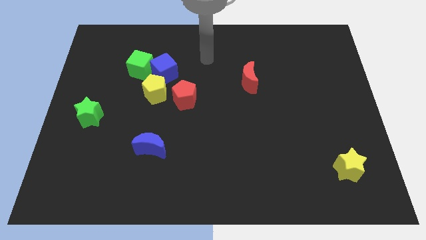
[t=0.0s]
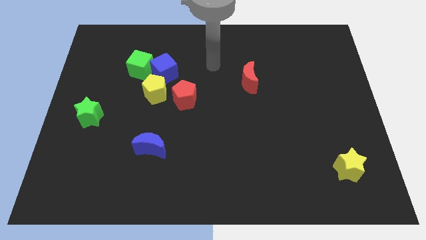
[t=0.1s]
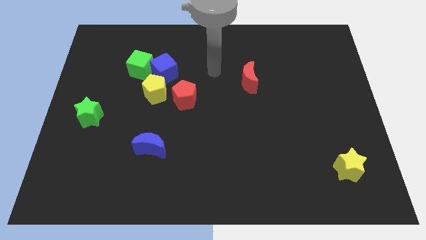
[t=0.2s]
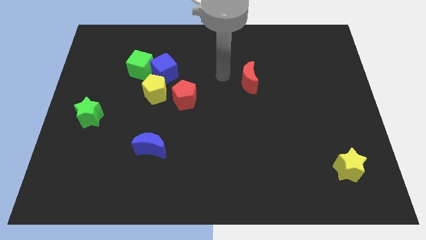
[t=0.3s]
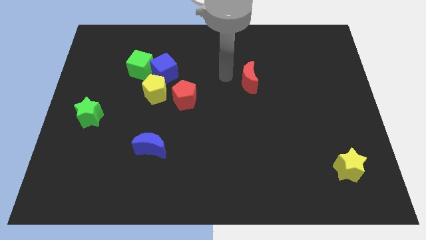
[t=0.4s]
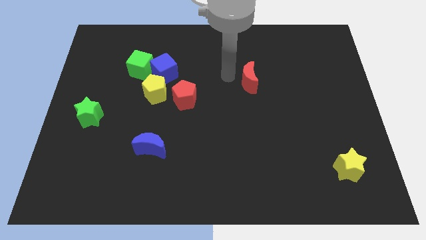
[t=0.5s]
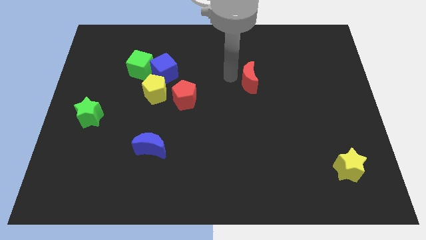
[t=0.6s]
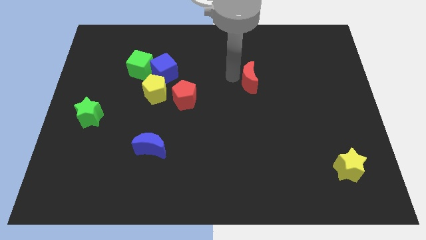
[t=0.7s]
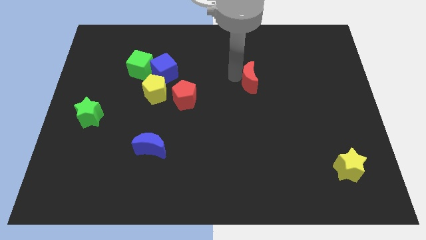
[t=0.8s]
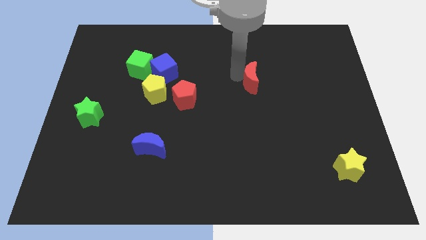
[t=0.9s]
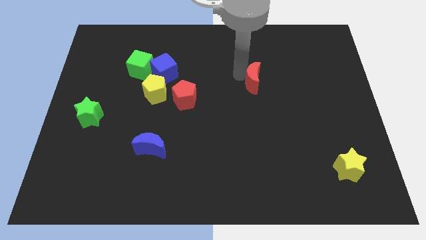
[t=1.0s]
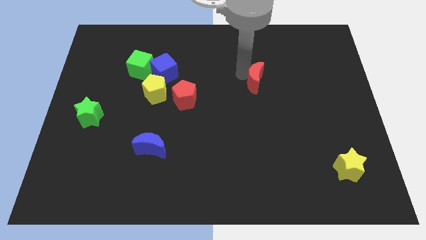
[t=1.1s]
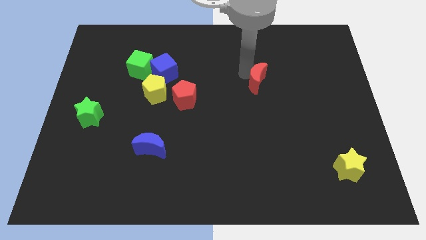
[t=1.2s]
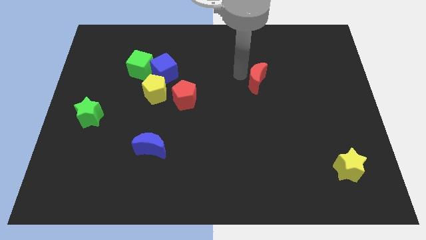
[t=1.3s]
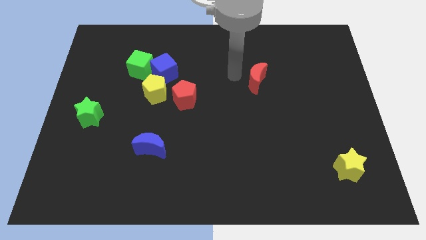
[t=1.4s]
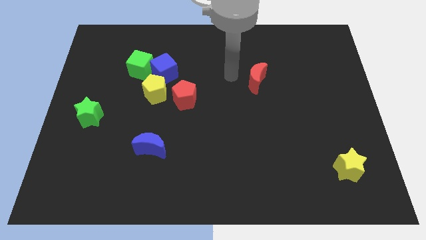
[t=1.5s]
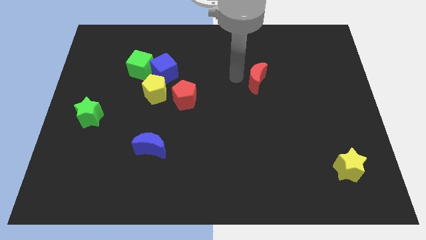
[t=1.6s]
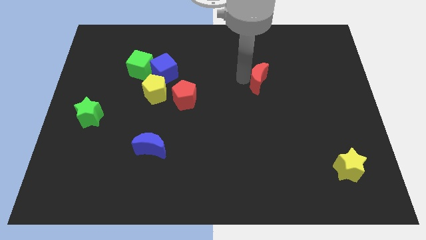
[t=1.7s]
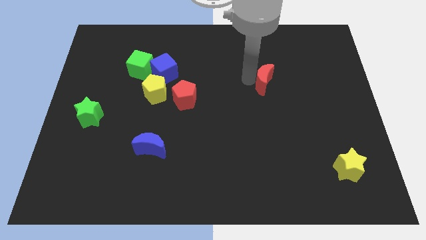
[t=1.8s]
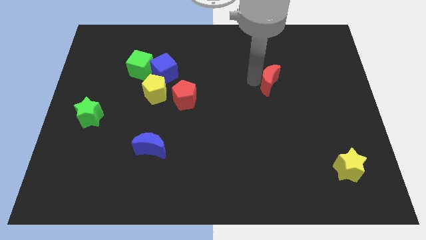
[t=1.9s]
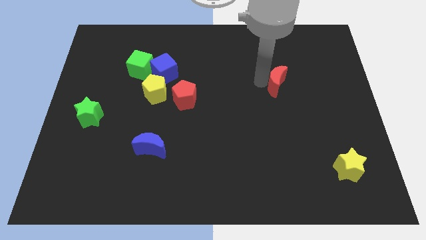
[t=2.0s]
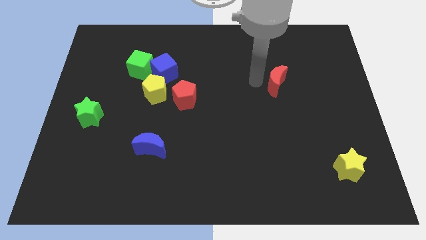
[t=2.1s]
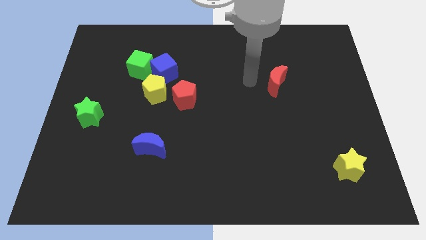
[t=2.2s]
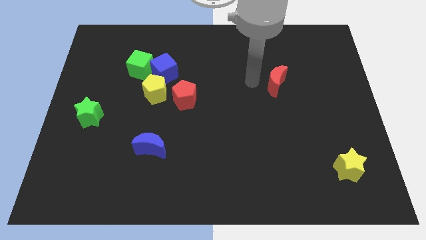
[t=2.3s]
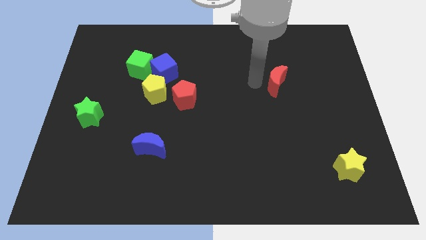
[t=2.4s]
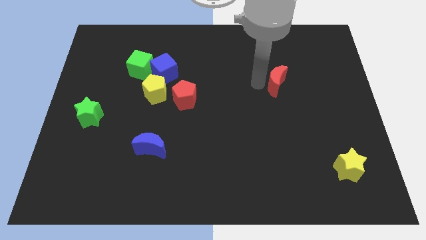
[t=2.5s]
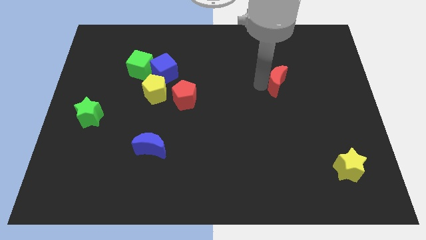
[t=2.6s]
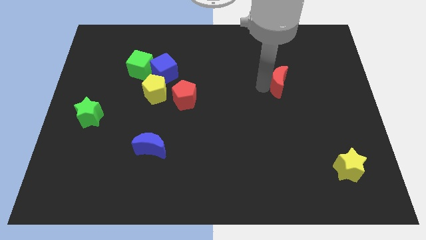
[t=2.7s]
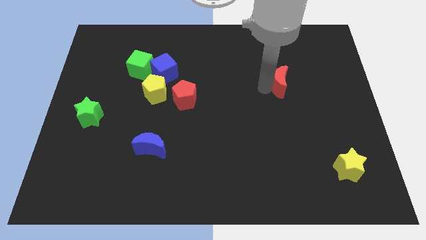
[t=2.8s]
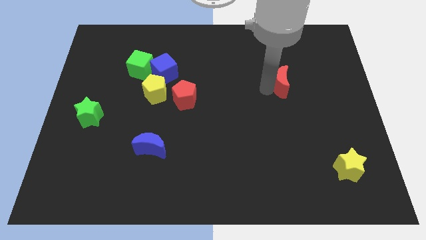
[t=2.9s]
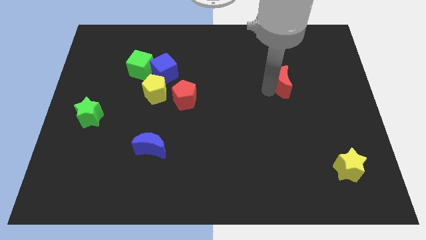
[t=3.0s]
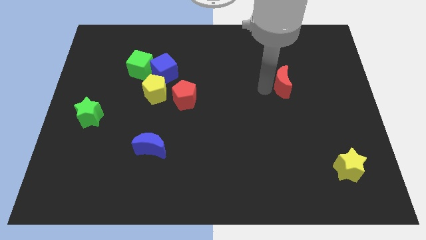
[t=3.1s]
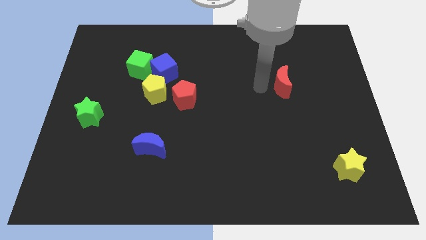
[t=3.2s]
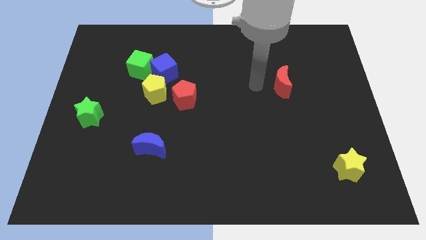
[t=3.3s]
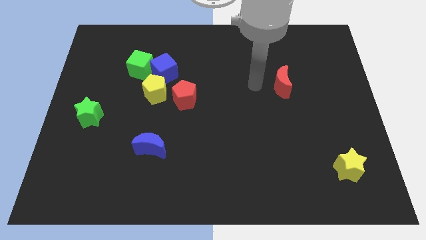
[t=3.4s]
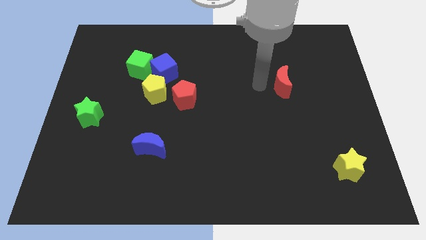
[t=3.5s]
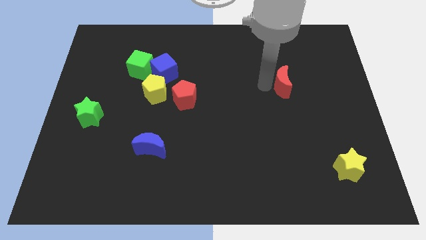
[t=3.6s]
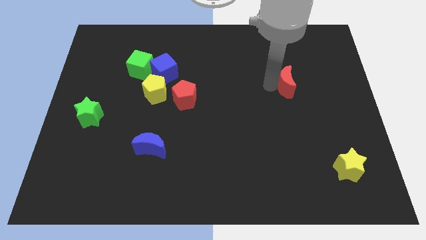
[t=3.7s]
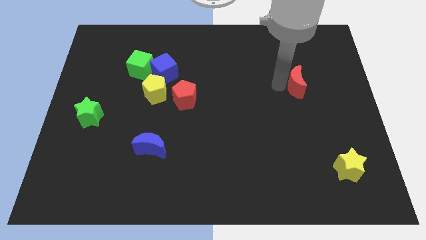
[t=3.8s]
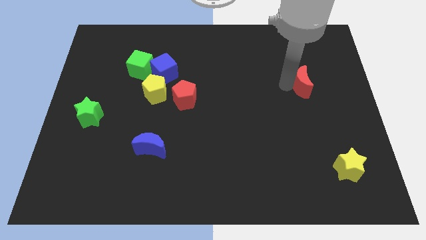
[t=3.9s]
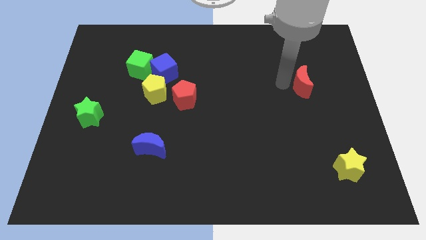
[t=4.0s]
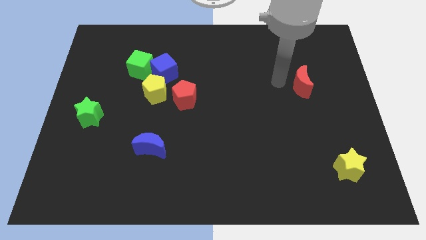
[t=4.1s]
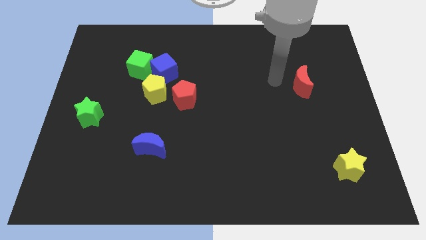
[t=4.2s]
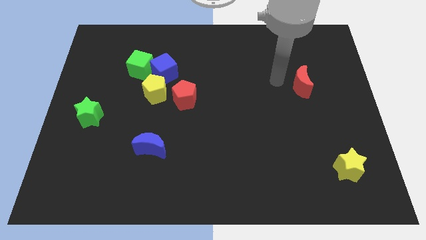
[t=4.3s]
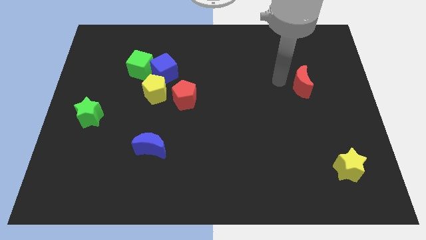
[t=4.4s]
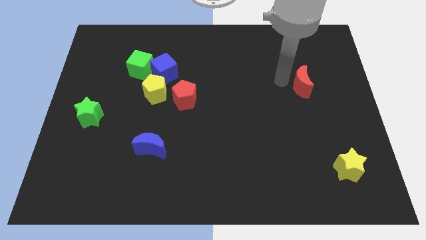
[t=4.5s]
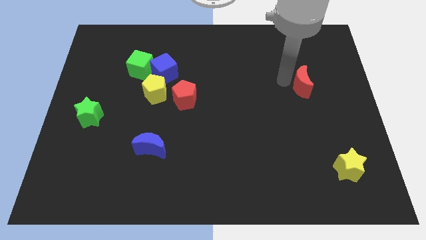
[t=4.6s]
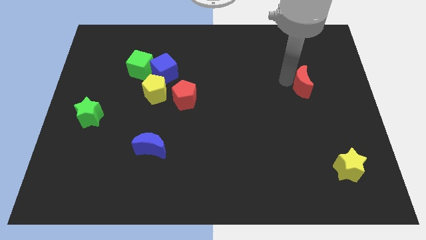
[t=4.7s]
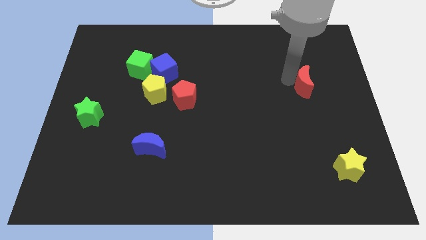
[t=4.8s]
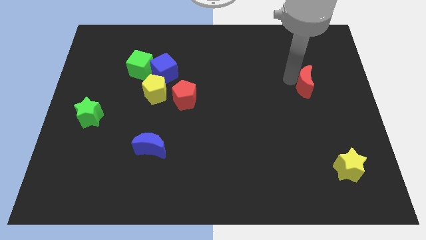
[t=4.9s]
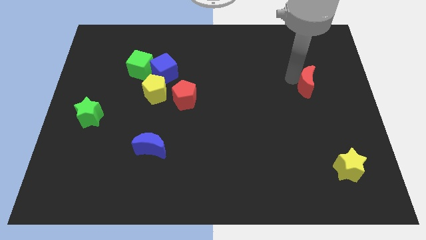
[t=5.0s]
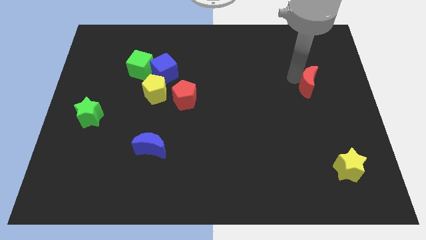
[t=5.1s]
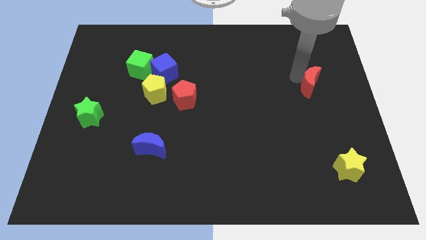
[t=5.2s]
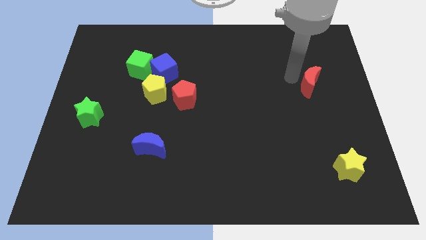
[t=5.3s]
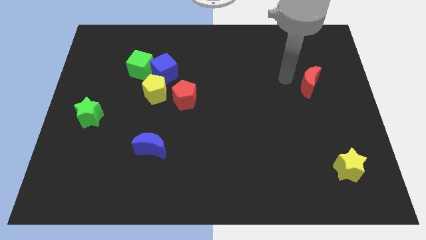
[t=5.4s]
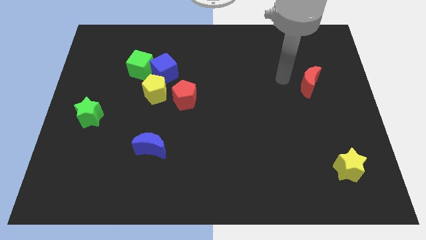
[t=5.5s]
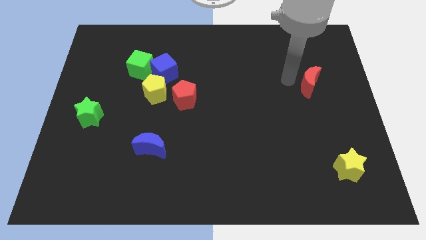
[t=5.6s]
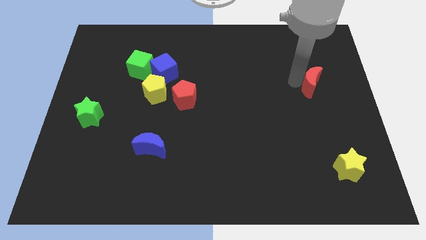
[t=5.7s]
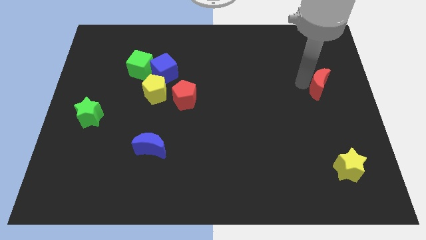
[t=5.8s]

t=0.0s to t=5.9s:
put the red moon to the right side of the board

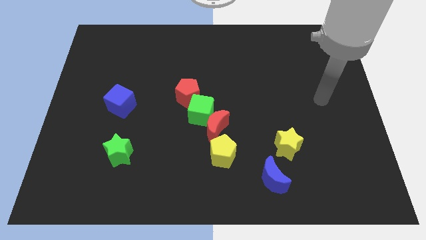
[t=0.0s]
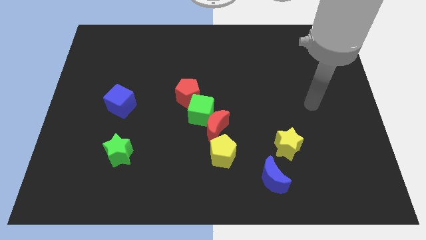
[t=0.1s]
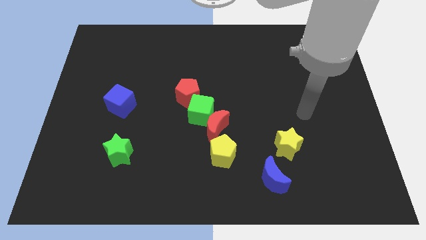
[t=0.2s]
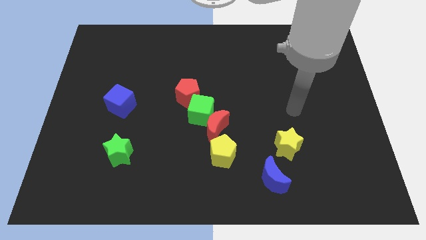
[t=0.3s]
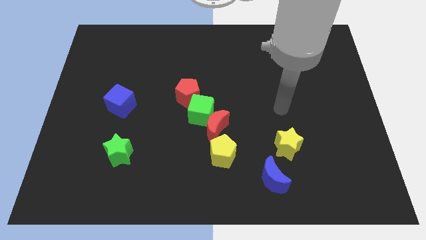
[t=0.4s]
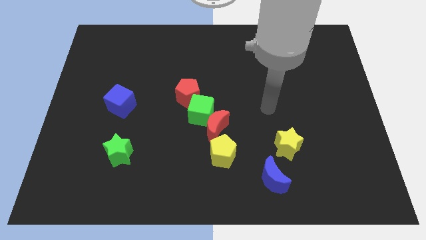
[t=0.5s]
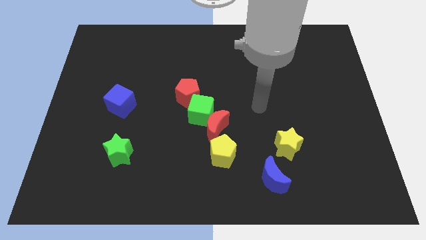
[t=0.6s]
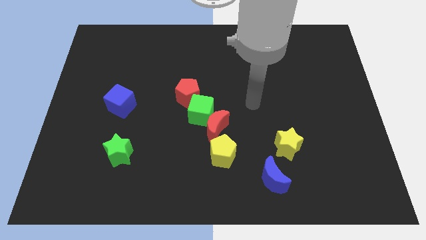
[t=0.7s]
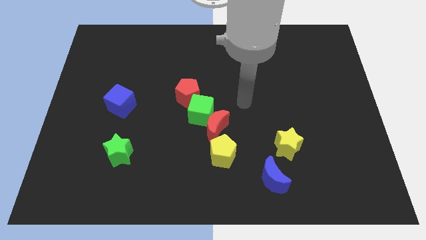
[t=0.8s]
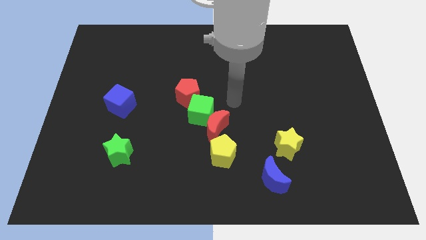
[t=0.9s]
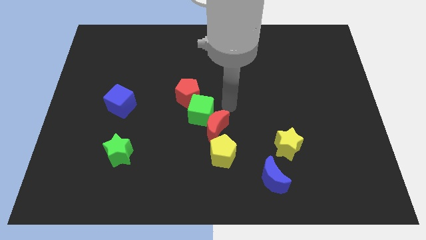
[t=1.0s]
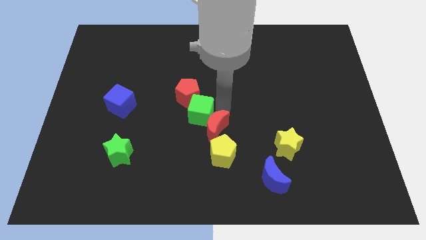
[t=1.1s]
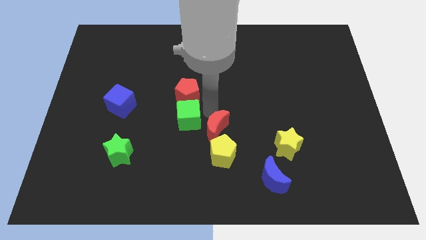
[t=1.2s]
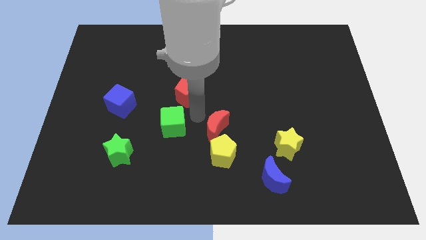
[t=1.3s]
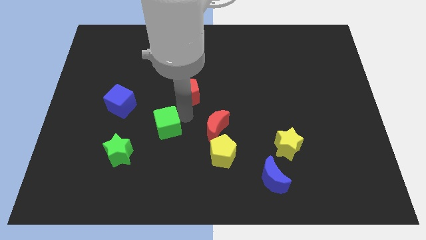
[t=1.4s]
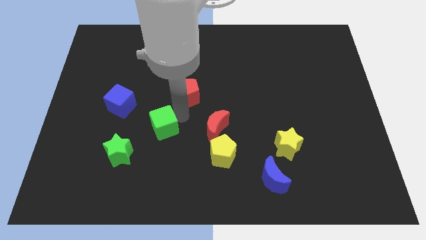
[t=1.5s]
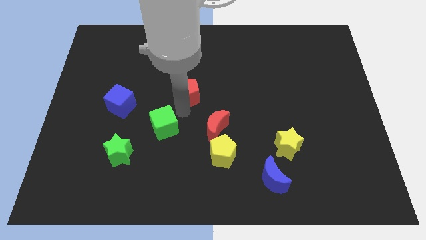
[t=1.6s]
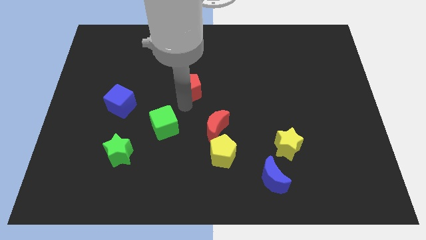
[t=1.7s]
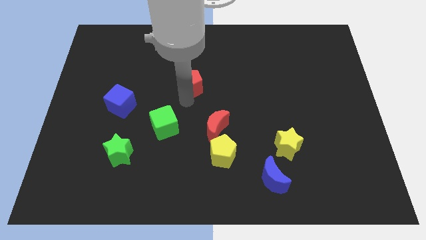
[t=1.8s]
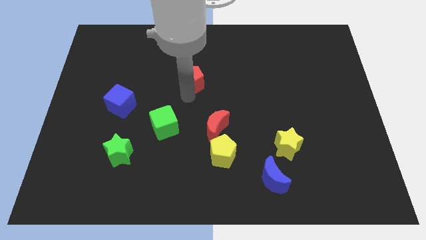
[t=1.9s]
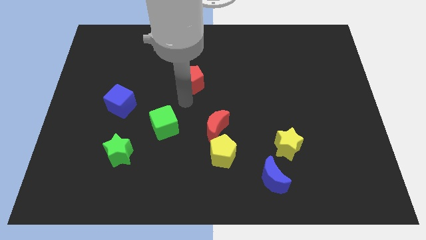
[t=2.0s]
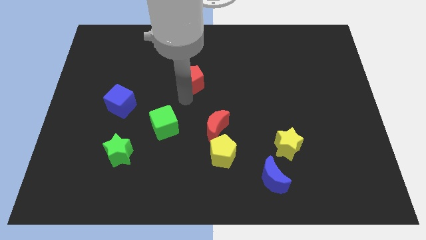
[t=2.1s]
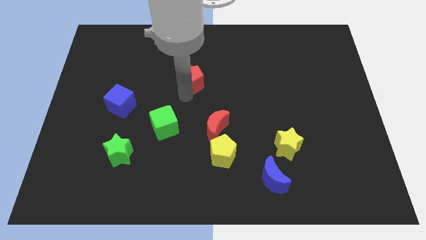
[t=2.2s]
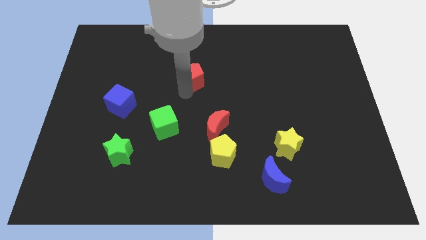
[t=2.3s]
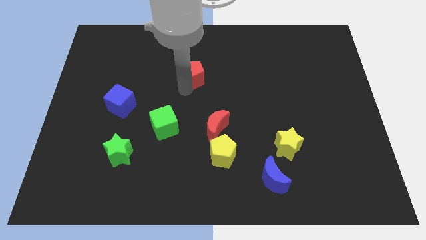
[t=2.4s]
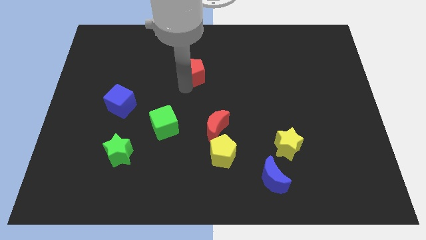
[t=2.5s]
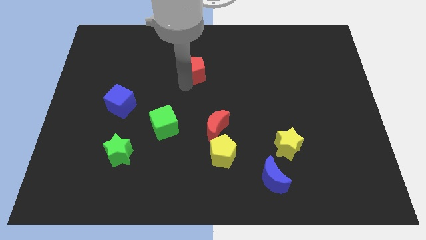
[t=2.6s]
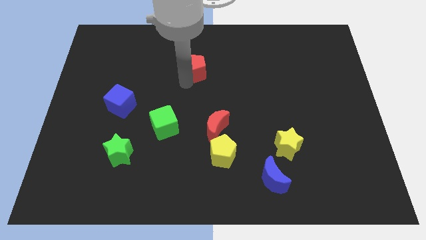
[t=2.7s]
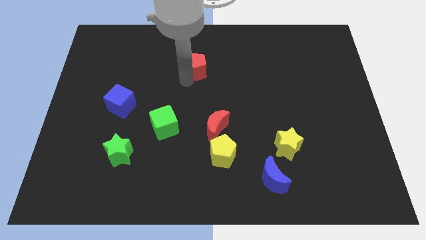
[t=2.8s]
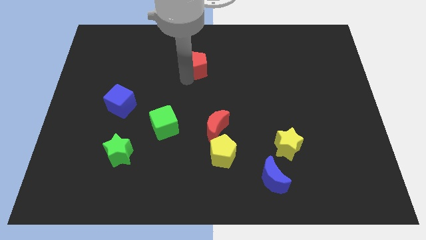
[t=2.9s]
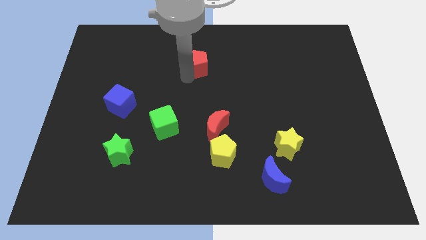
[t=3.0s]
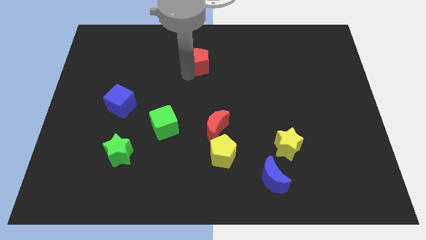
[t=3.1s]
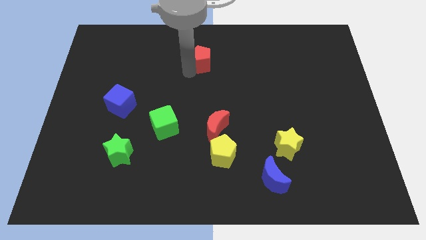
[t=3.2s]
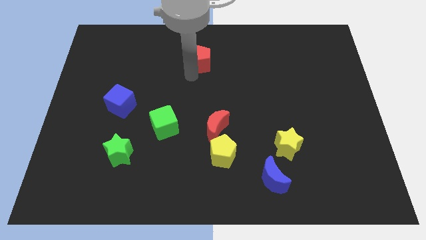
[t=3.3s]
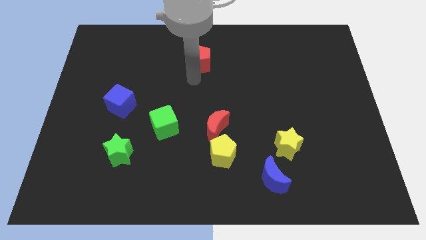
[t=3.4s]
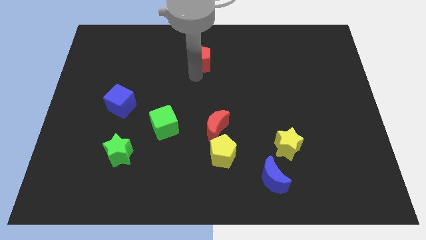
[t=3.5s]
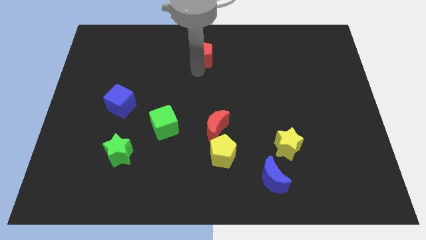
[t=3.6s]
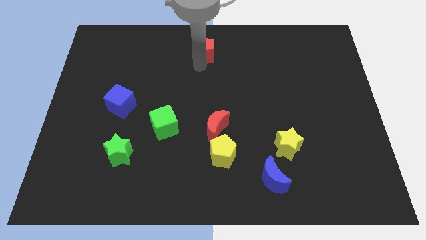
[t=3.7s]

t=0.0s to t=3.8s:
put the red pentagon to the towards your base
